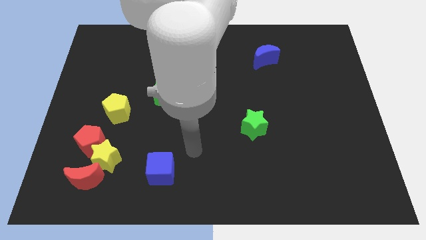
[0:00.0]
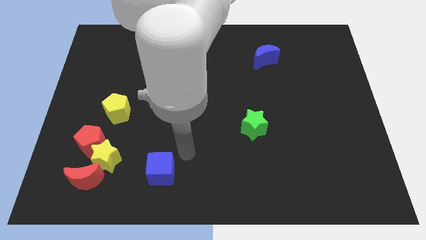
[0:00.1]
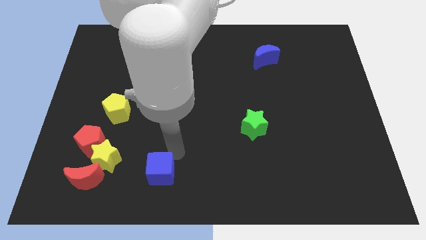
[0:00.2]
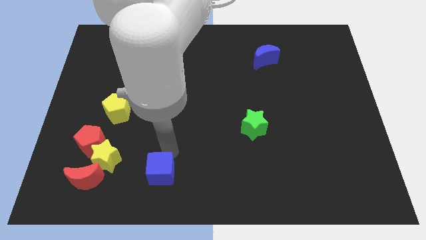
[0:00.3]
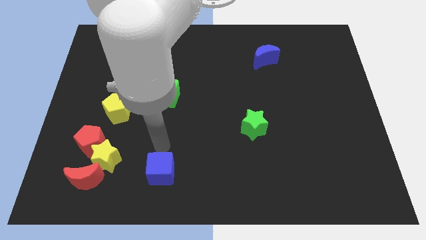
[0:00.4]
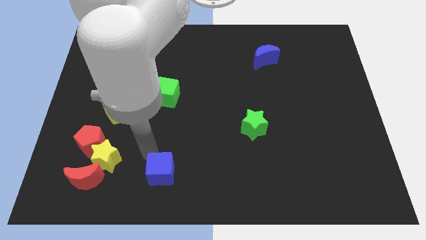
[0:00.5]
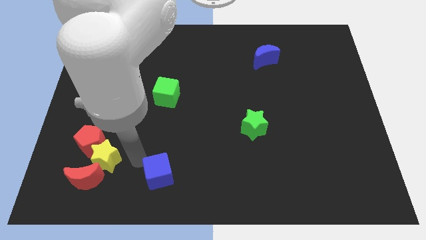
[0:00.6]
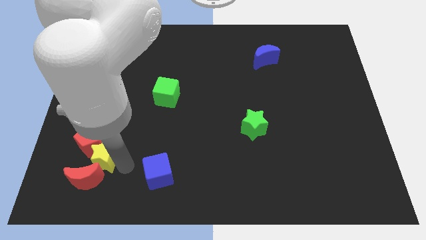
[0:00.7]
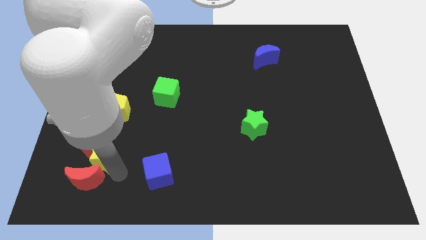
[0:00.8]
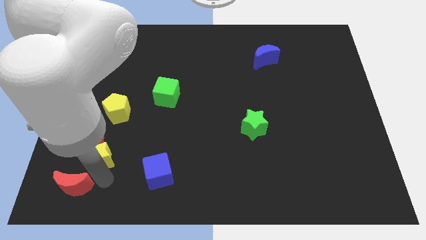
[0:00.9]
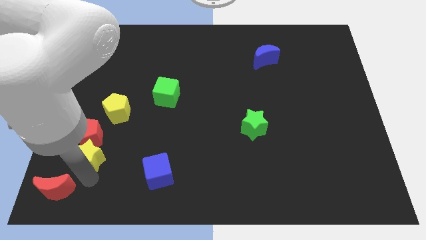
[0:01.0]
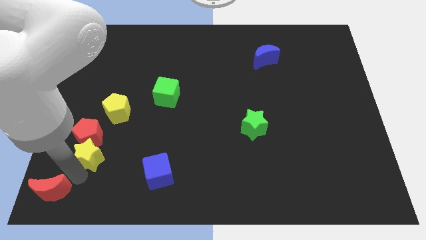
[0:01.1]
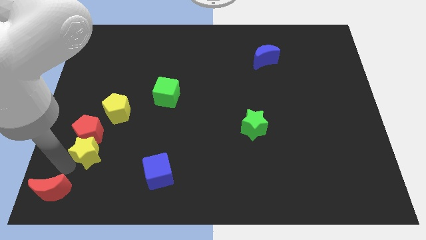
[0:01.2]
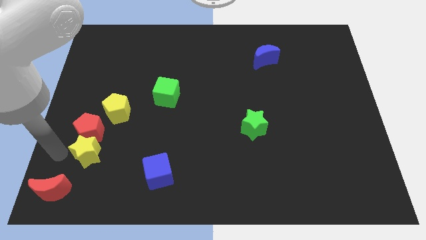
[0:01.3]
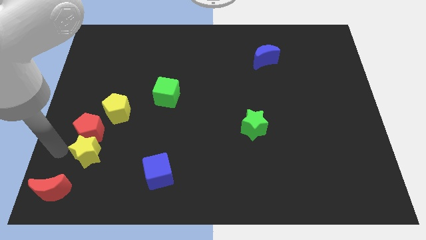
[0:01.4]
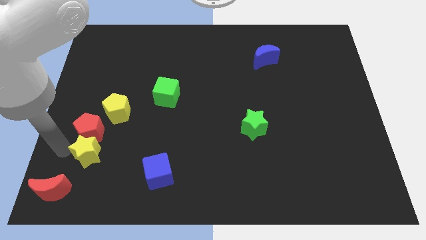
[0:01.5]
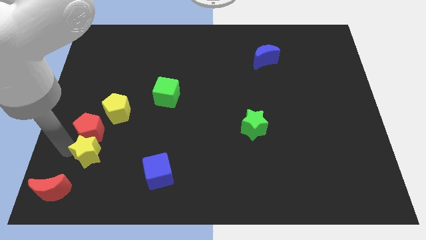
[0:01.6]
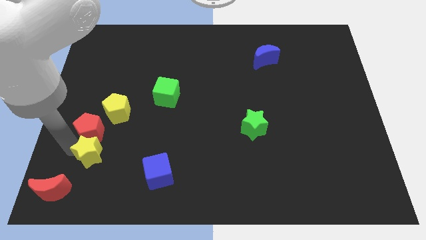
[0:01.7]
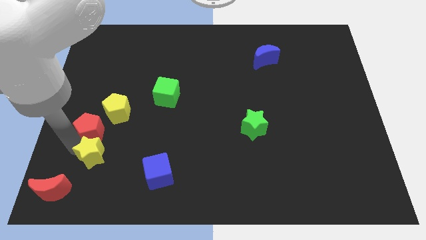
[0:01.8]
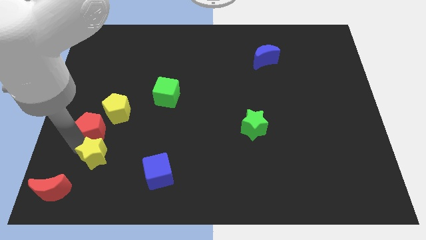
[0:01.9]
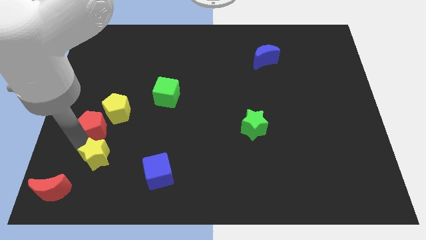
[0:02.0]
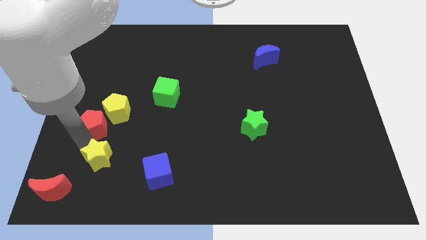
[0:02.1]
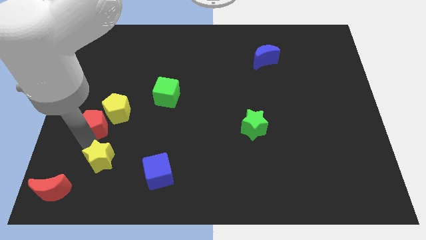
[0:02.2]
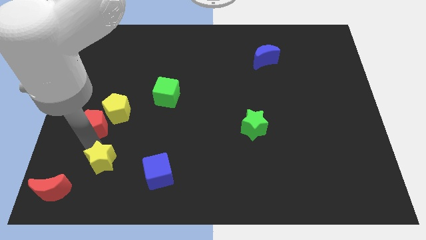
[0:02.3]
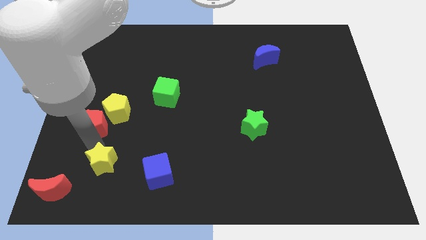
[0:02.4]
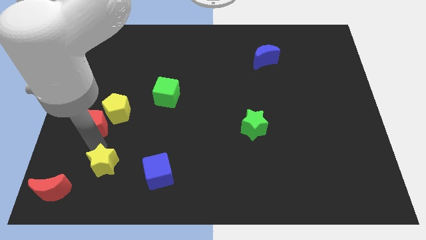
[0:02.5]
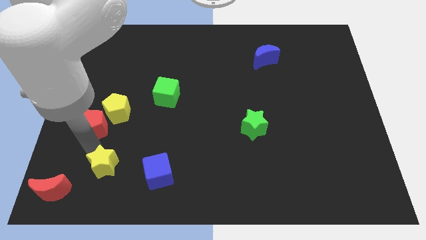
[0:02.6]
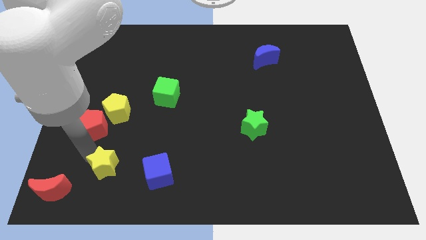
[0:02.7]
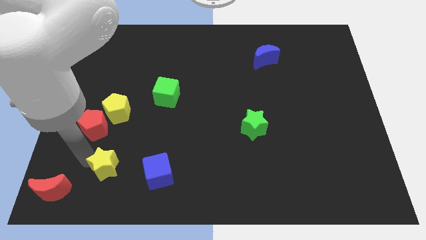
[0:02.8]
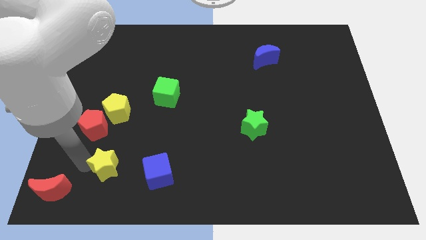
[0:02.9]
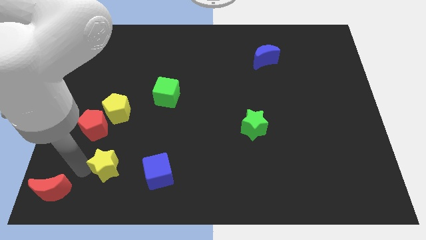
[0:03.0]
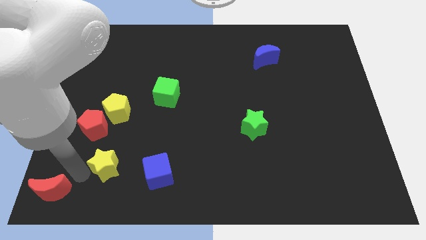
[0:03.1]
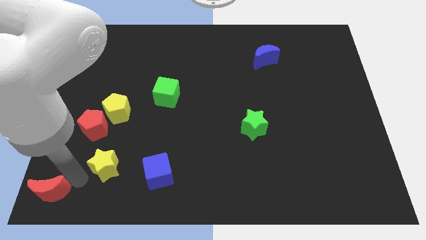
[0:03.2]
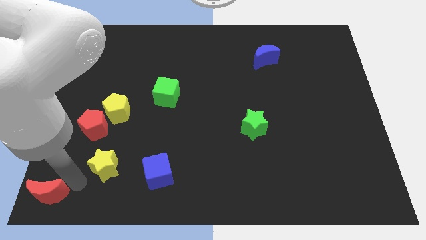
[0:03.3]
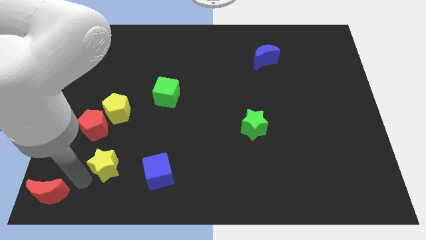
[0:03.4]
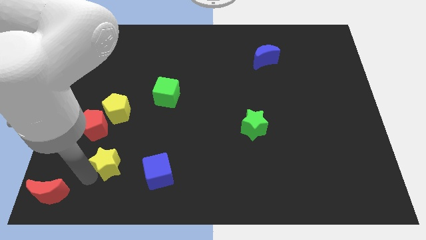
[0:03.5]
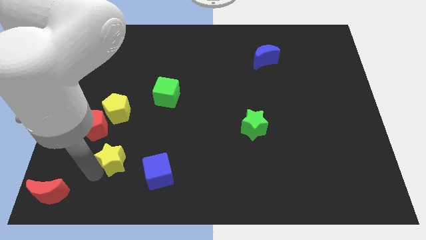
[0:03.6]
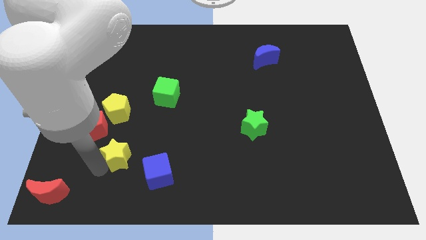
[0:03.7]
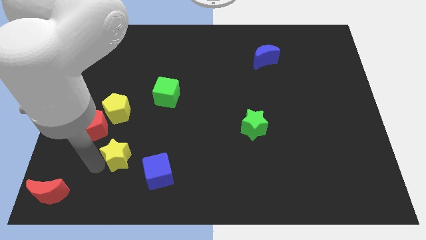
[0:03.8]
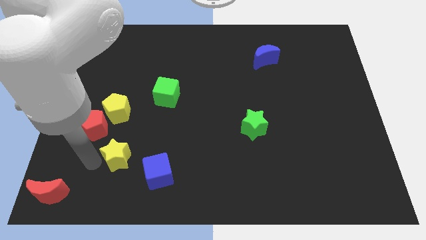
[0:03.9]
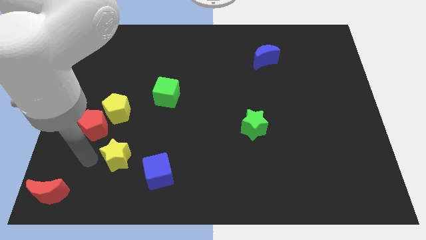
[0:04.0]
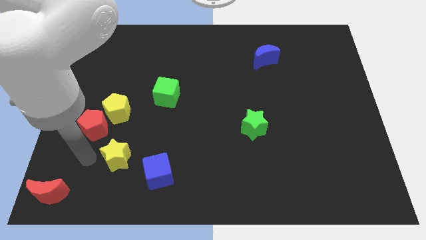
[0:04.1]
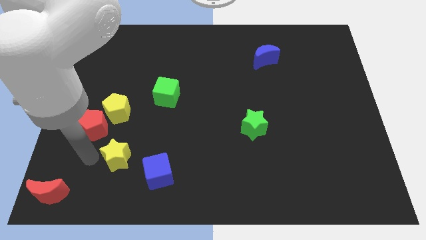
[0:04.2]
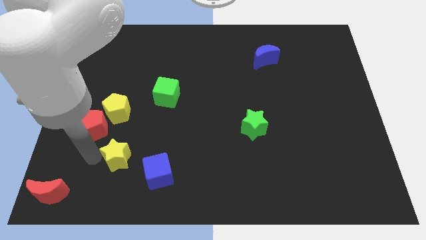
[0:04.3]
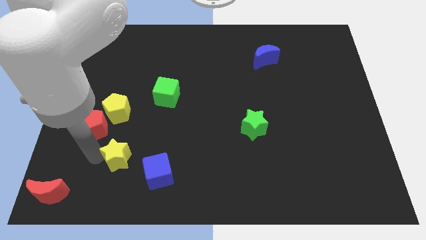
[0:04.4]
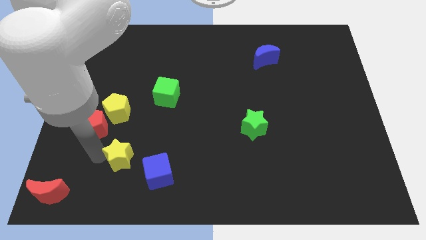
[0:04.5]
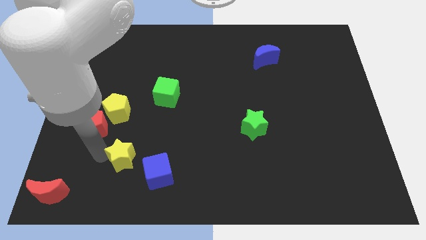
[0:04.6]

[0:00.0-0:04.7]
move the yellow star away from the red pentagon and red moon

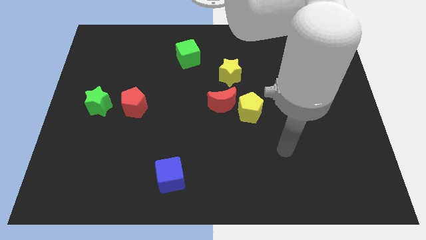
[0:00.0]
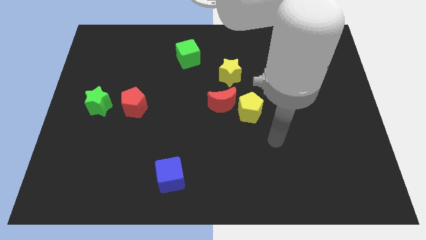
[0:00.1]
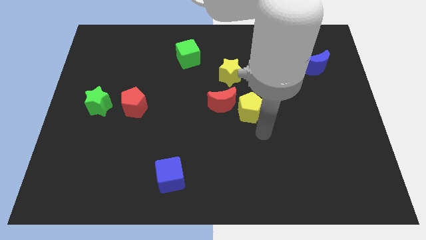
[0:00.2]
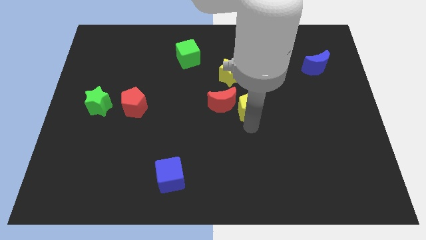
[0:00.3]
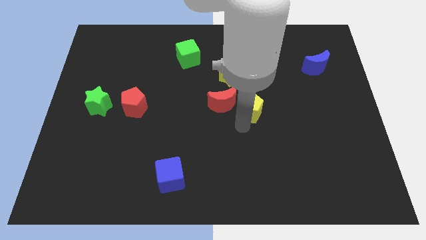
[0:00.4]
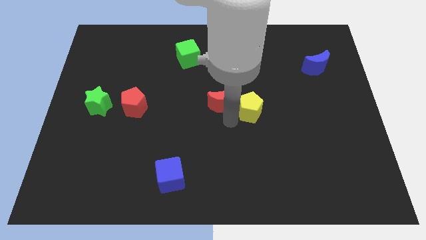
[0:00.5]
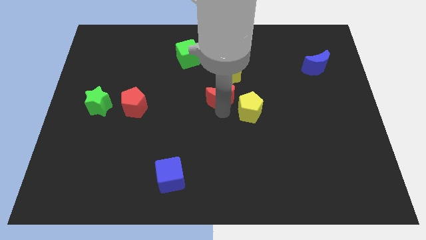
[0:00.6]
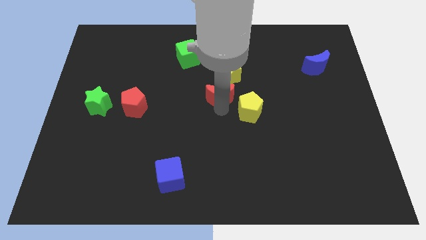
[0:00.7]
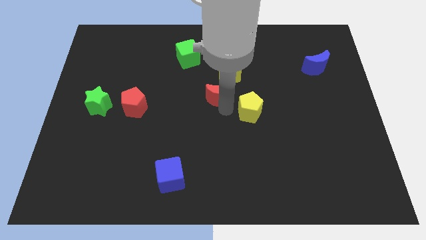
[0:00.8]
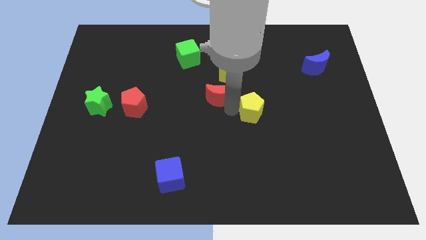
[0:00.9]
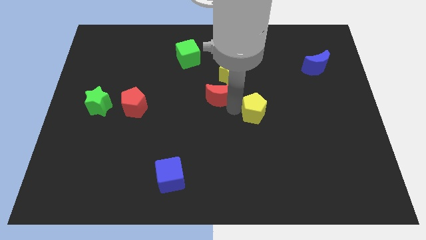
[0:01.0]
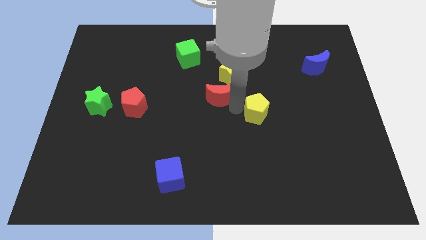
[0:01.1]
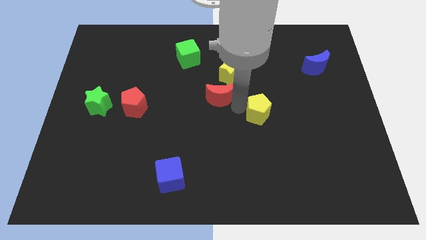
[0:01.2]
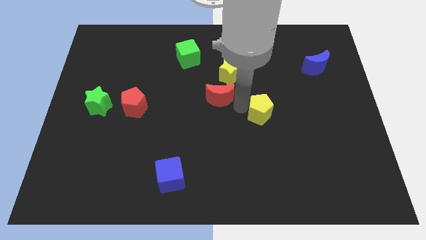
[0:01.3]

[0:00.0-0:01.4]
separate the yellow pentagon from the red moon

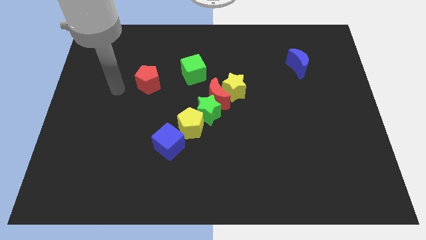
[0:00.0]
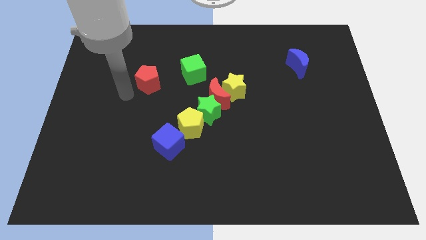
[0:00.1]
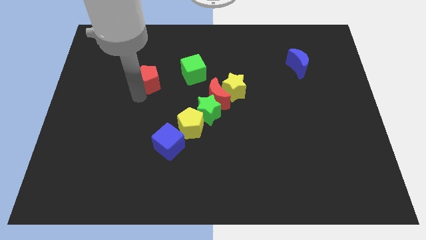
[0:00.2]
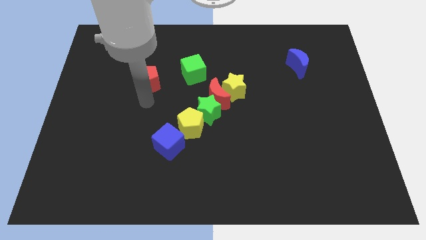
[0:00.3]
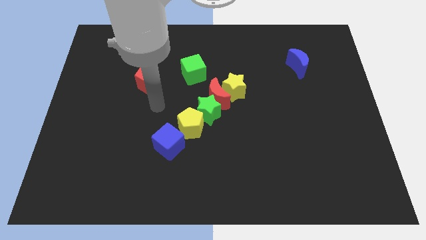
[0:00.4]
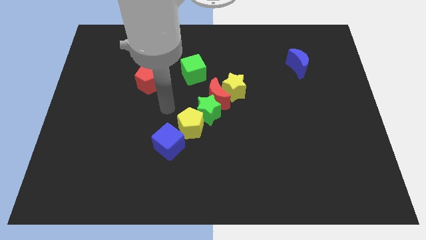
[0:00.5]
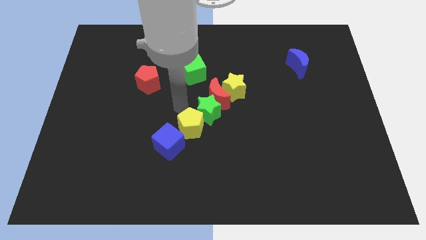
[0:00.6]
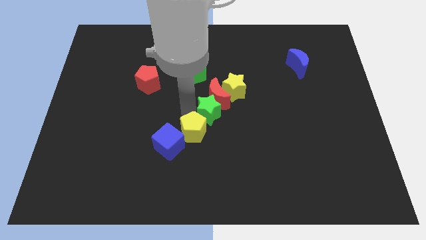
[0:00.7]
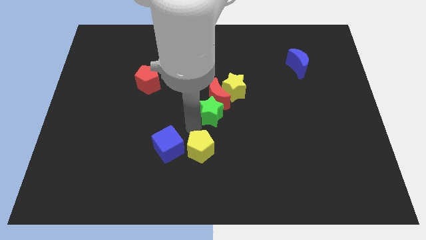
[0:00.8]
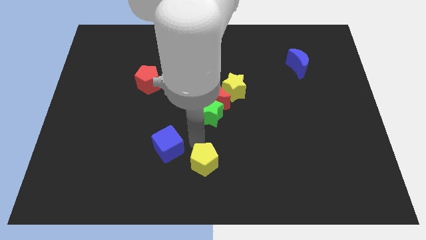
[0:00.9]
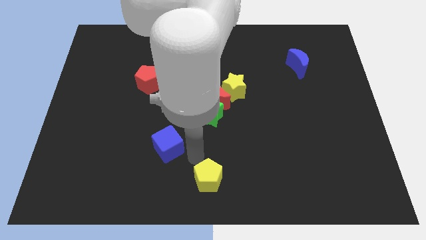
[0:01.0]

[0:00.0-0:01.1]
move the blue cube away from the yellow pentagon

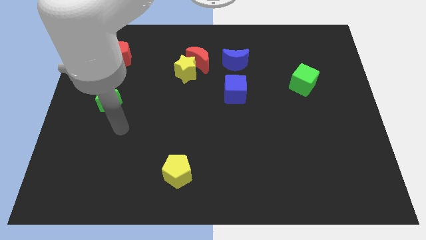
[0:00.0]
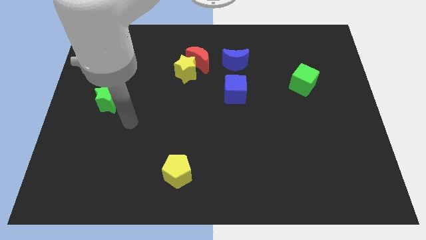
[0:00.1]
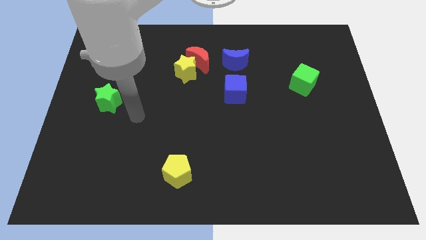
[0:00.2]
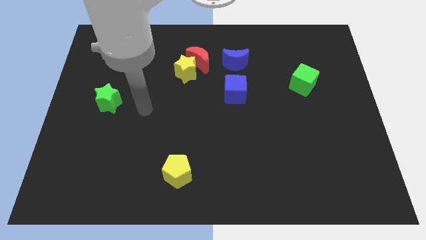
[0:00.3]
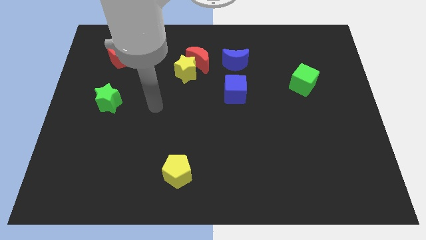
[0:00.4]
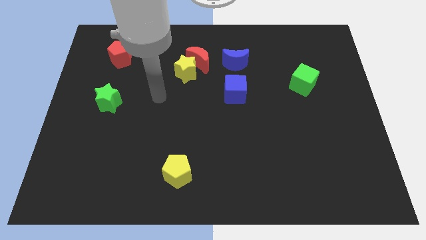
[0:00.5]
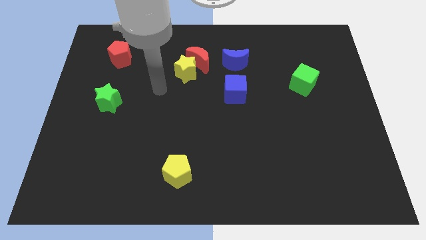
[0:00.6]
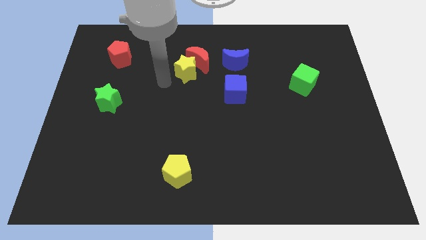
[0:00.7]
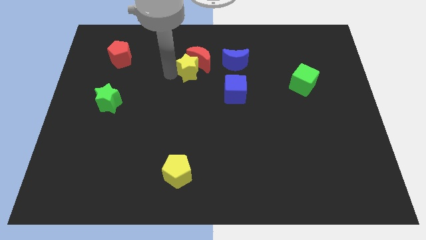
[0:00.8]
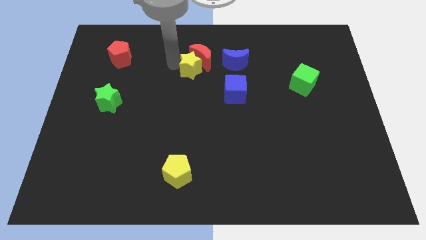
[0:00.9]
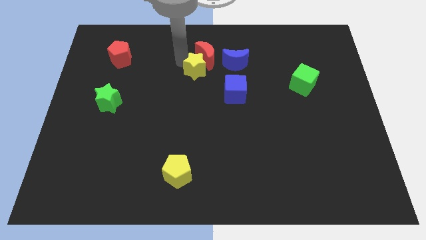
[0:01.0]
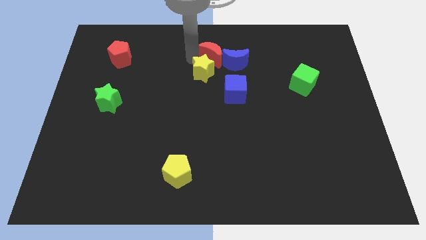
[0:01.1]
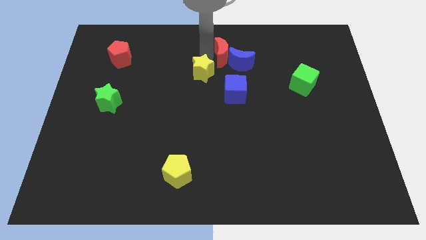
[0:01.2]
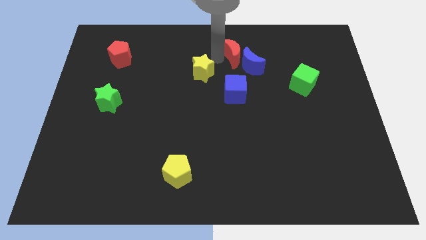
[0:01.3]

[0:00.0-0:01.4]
separate the yellow star from the red moon

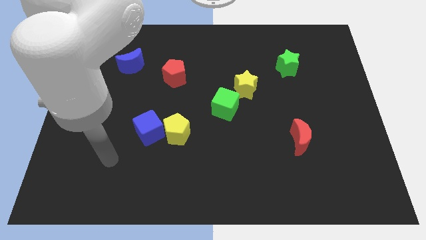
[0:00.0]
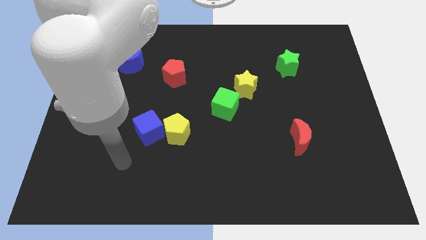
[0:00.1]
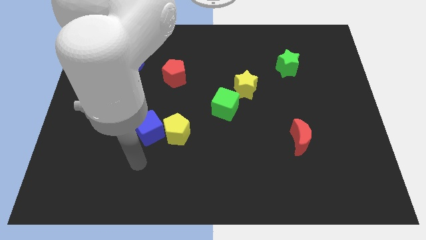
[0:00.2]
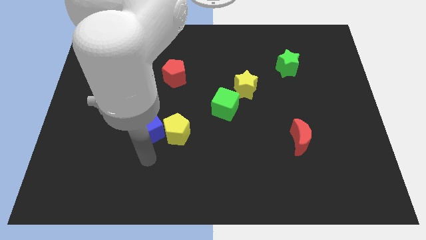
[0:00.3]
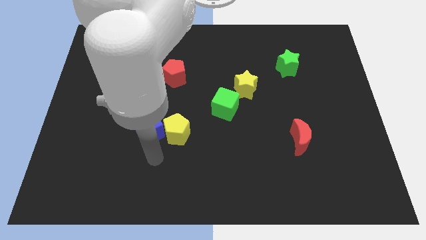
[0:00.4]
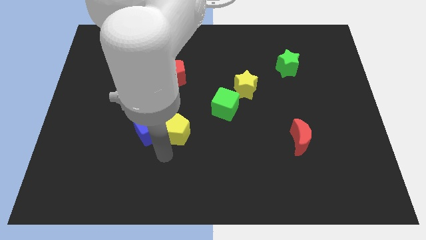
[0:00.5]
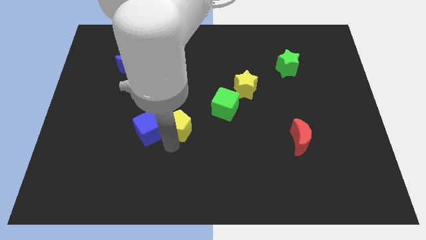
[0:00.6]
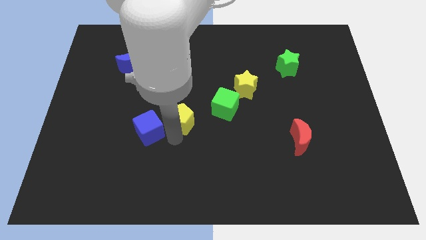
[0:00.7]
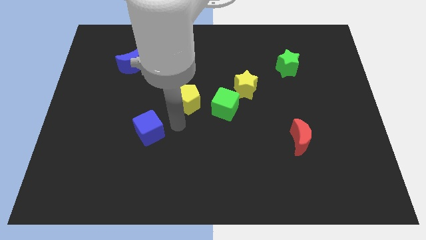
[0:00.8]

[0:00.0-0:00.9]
pull the blue cube apart from the yellow pentagon
